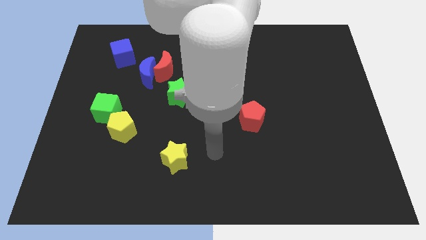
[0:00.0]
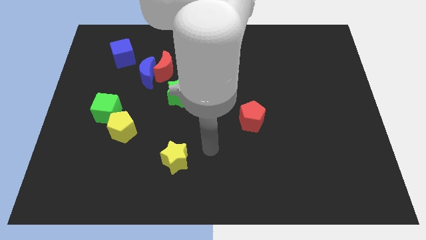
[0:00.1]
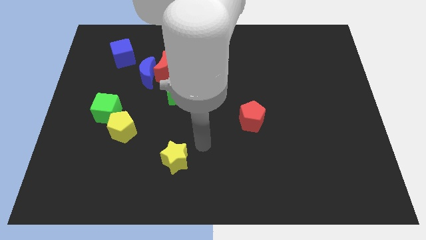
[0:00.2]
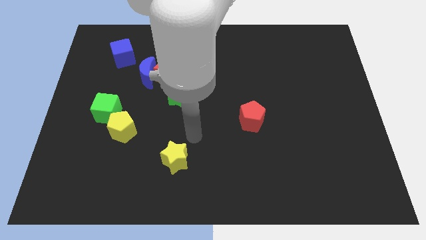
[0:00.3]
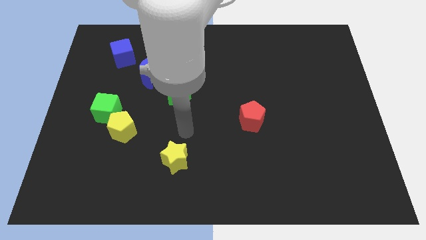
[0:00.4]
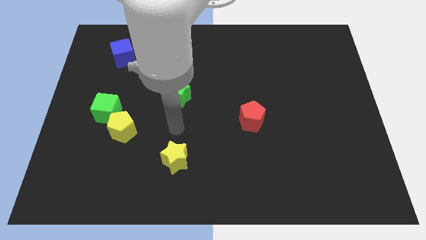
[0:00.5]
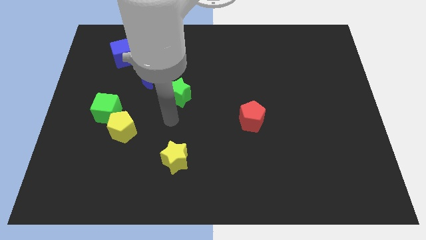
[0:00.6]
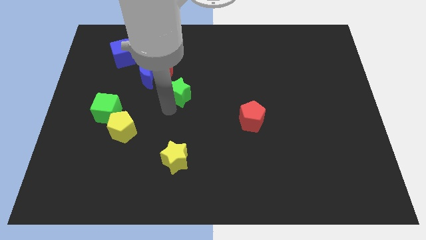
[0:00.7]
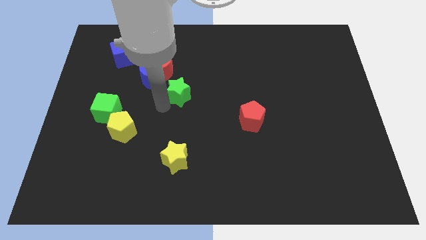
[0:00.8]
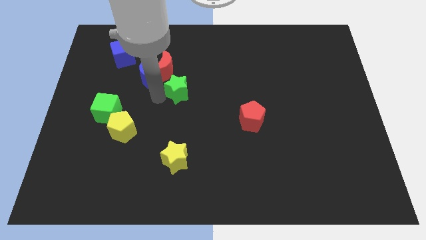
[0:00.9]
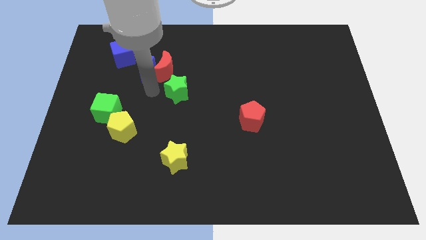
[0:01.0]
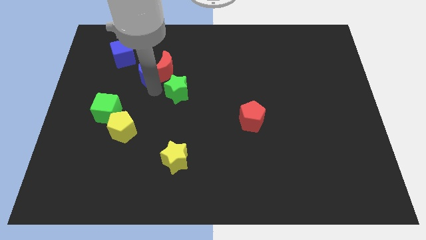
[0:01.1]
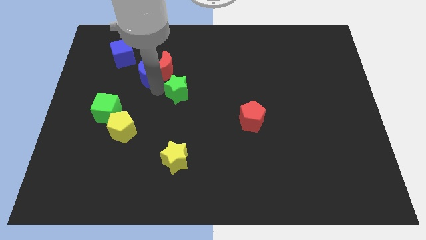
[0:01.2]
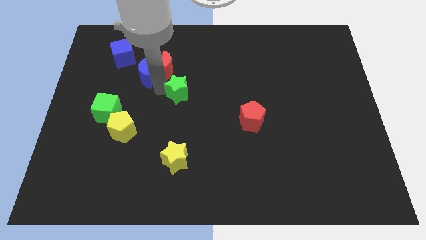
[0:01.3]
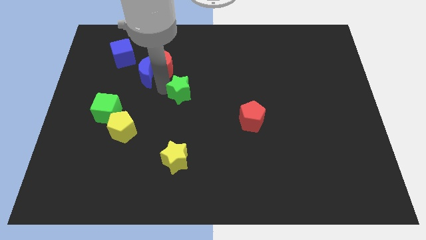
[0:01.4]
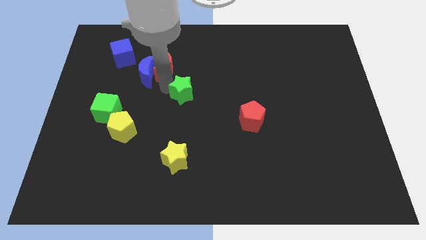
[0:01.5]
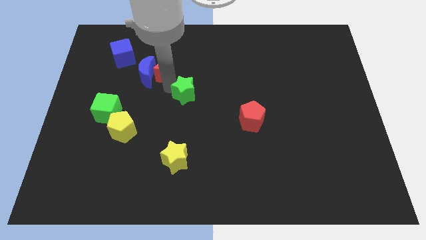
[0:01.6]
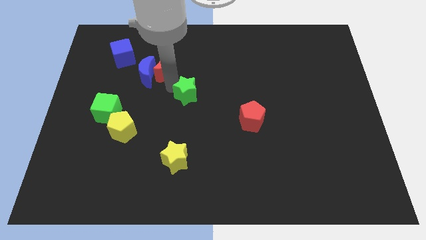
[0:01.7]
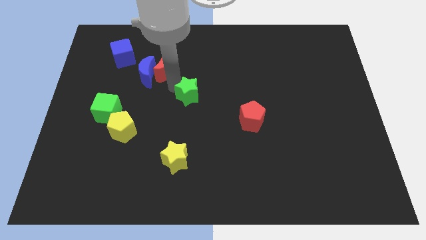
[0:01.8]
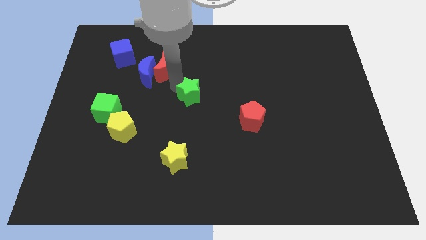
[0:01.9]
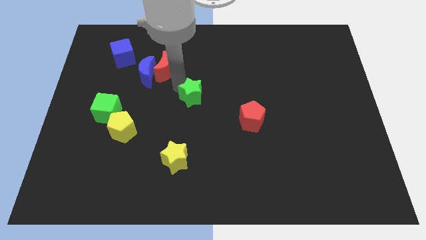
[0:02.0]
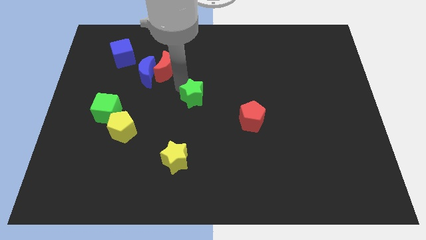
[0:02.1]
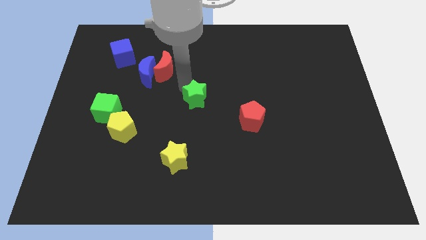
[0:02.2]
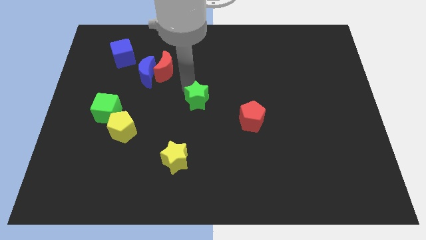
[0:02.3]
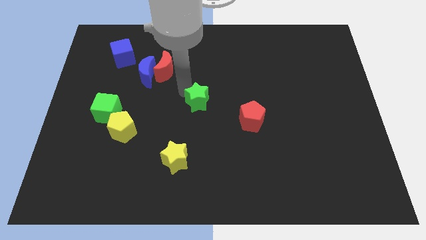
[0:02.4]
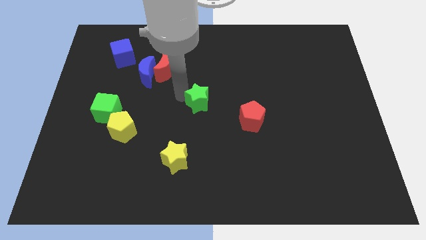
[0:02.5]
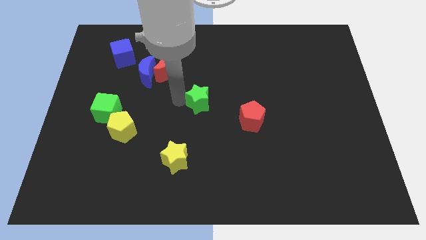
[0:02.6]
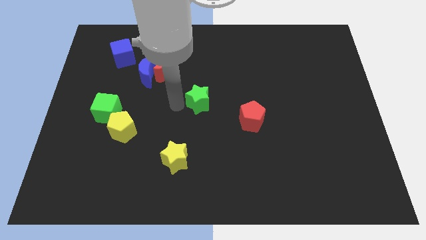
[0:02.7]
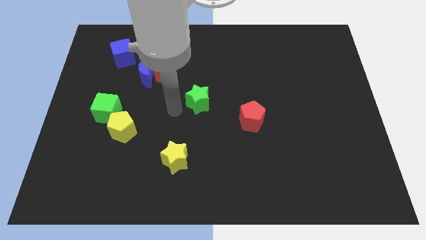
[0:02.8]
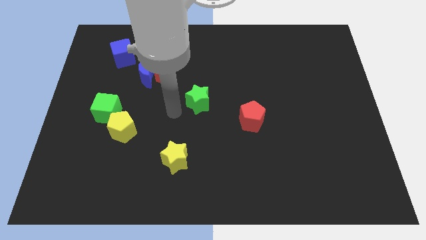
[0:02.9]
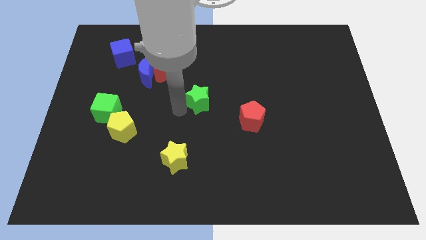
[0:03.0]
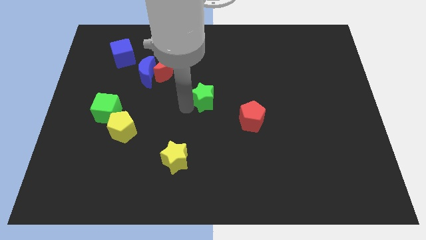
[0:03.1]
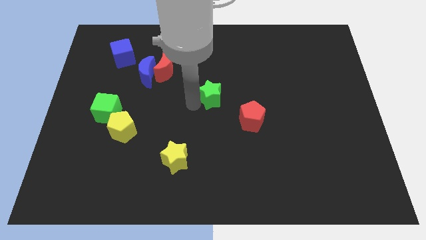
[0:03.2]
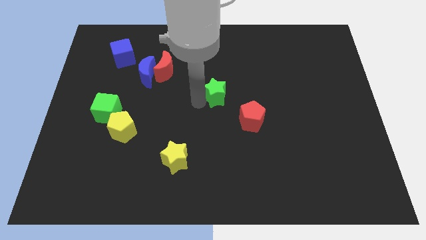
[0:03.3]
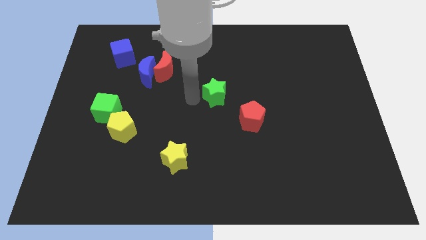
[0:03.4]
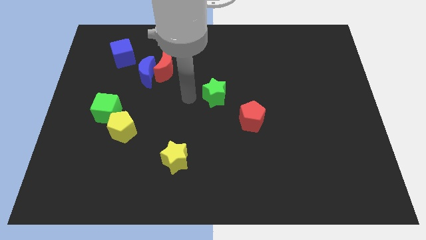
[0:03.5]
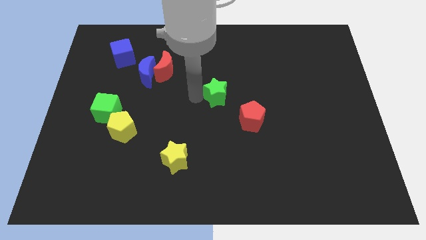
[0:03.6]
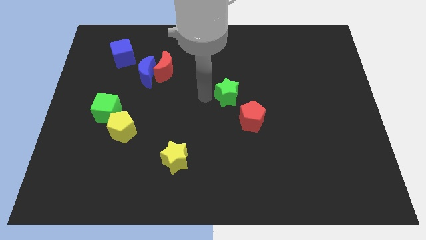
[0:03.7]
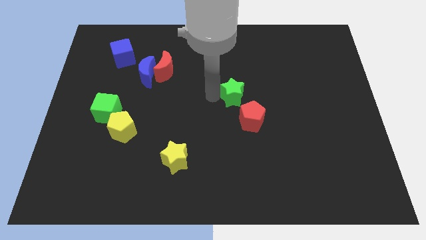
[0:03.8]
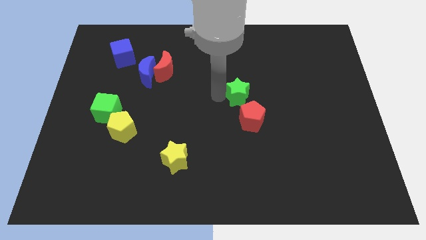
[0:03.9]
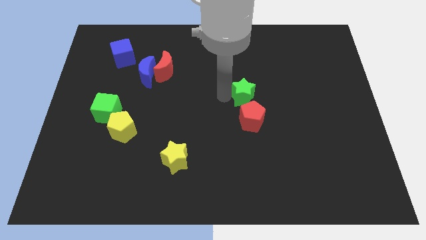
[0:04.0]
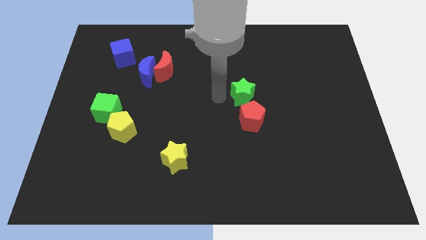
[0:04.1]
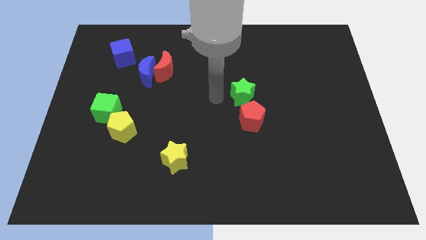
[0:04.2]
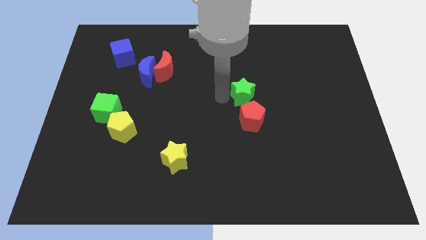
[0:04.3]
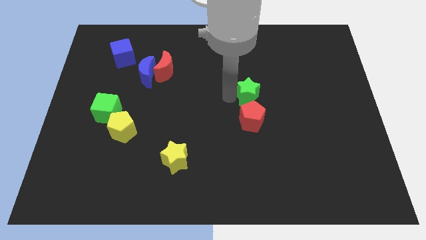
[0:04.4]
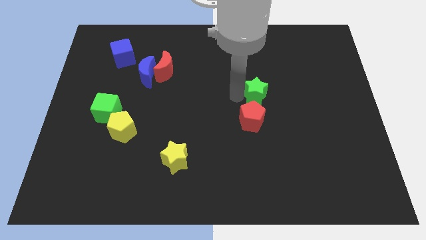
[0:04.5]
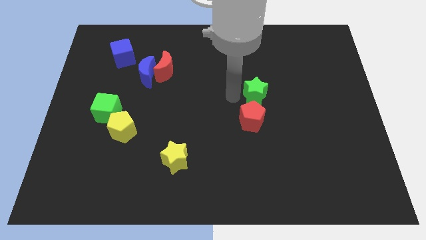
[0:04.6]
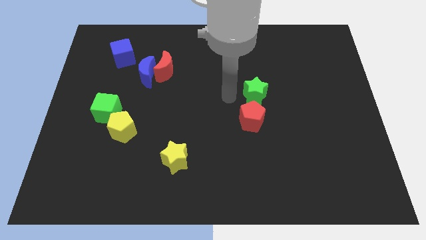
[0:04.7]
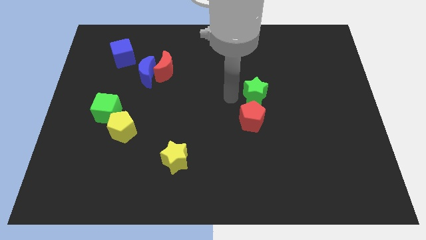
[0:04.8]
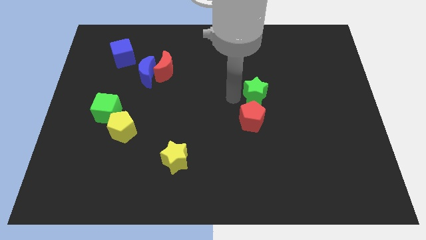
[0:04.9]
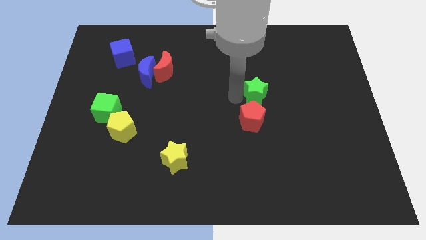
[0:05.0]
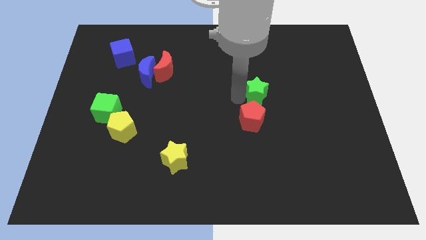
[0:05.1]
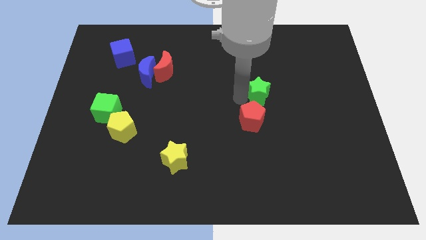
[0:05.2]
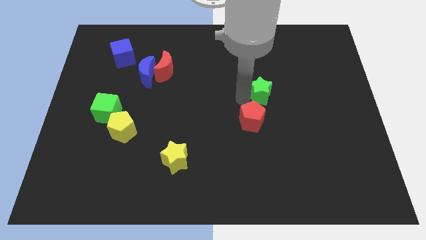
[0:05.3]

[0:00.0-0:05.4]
push the green star right

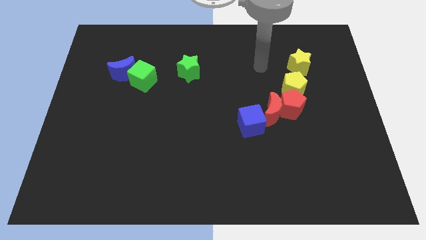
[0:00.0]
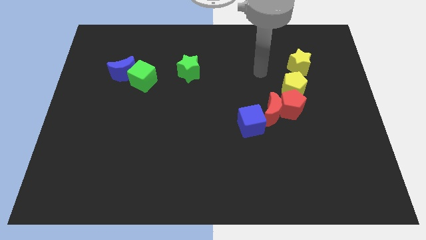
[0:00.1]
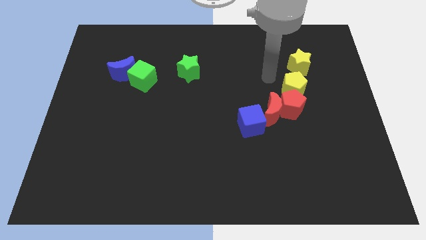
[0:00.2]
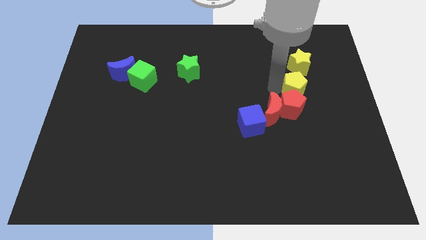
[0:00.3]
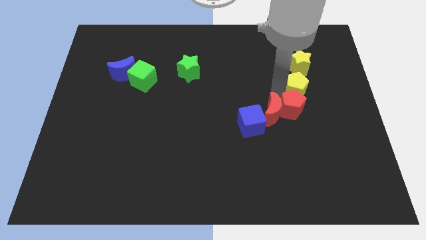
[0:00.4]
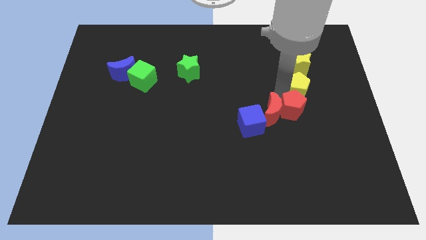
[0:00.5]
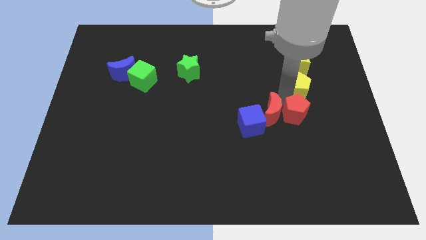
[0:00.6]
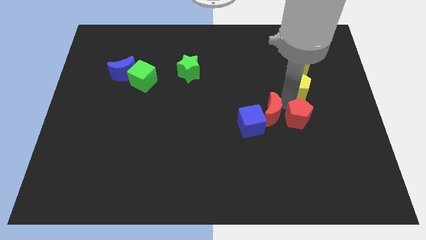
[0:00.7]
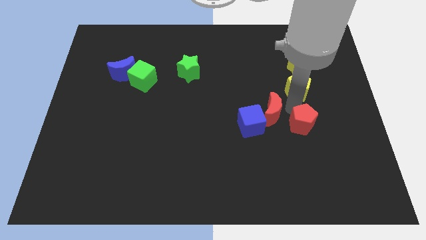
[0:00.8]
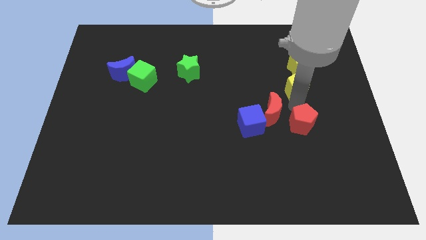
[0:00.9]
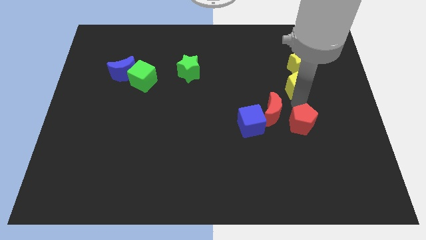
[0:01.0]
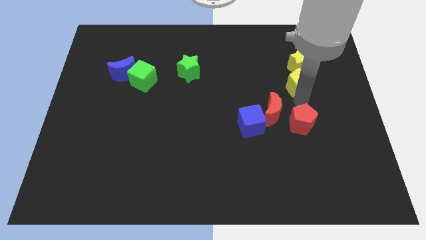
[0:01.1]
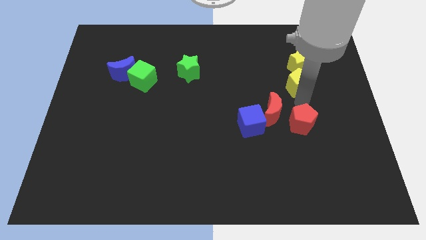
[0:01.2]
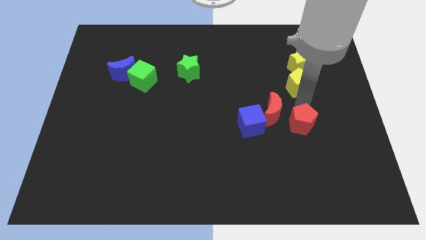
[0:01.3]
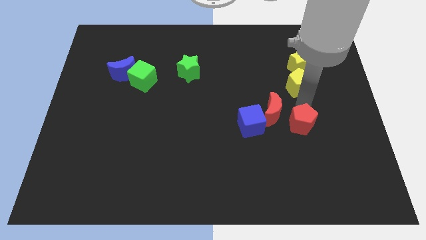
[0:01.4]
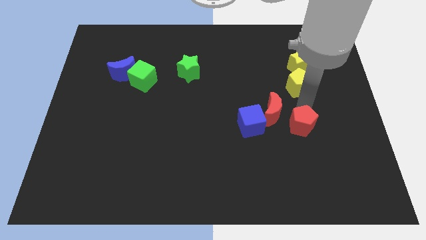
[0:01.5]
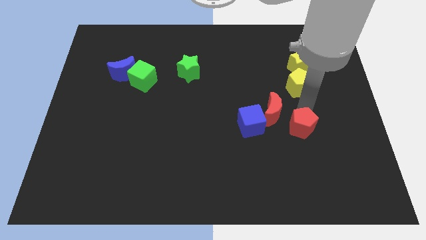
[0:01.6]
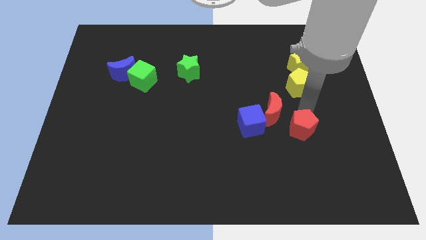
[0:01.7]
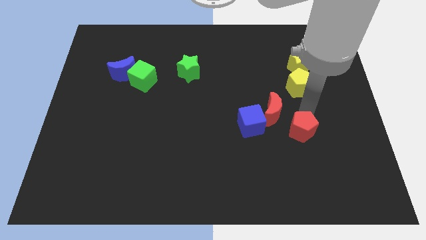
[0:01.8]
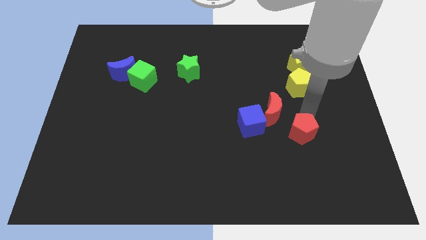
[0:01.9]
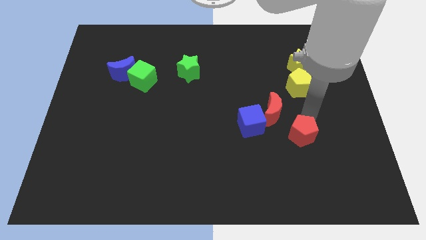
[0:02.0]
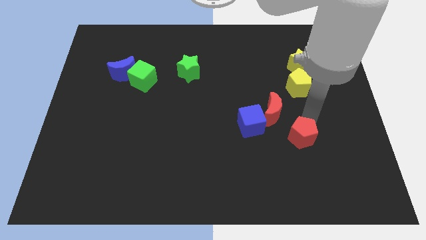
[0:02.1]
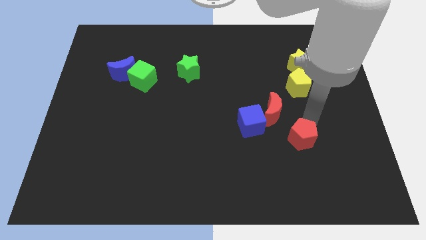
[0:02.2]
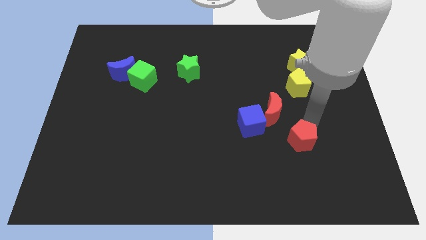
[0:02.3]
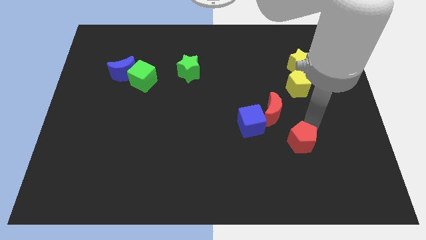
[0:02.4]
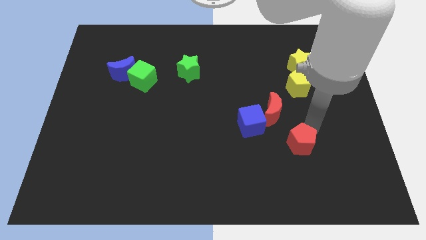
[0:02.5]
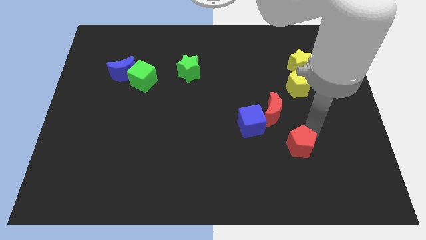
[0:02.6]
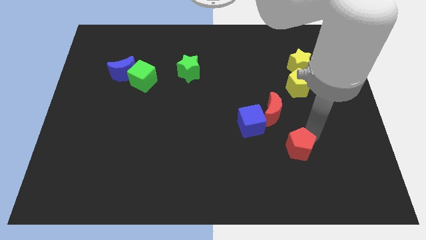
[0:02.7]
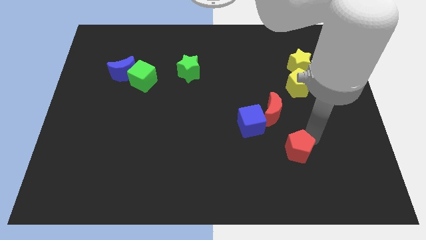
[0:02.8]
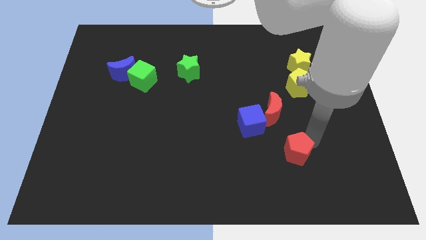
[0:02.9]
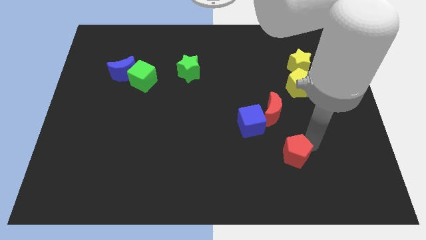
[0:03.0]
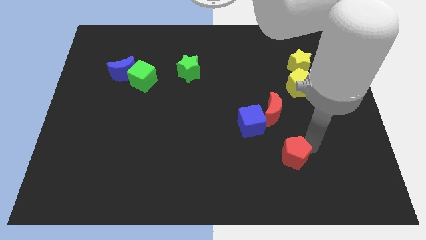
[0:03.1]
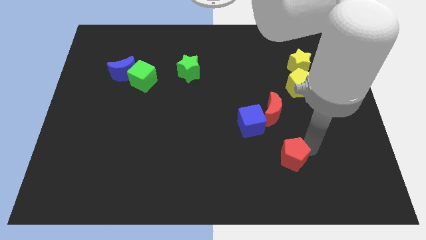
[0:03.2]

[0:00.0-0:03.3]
push the red pentagon a little bit diagonally down and left
